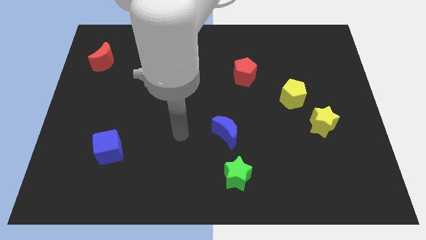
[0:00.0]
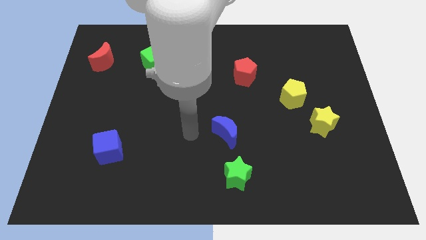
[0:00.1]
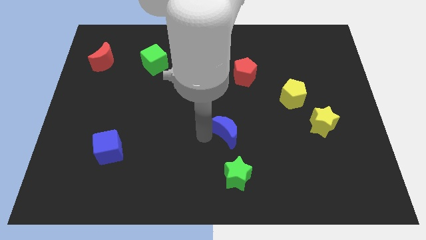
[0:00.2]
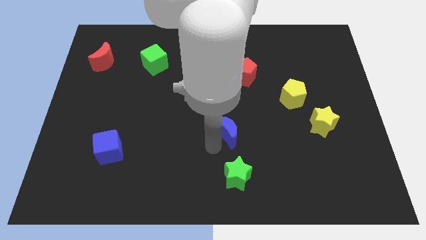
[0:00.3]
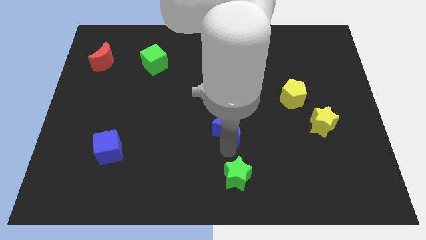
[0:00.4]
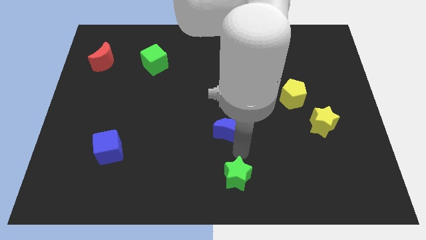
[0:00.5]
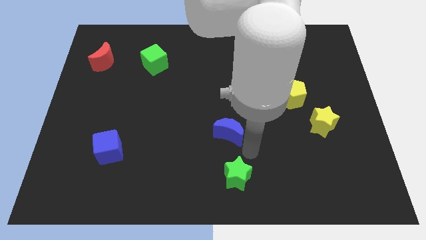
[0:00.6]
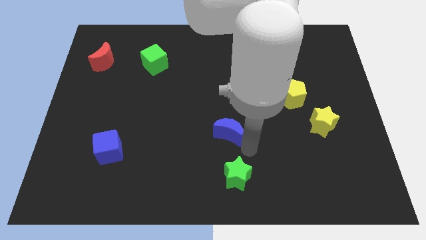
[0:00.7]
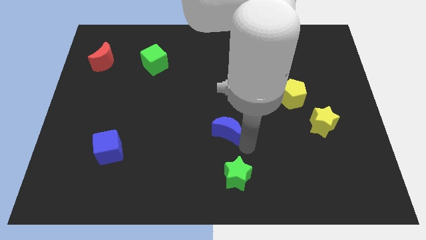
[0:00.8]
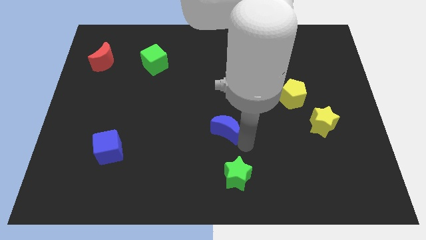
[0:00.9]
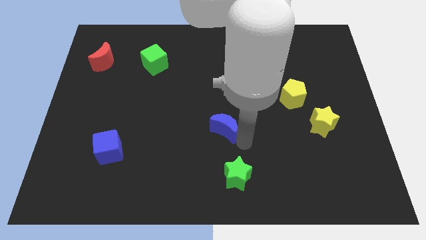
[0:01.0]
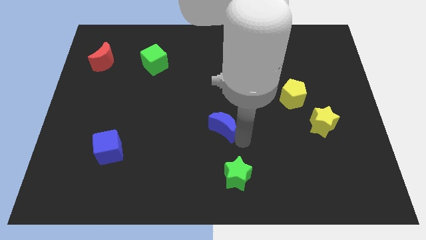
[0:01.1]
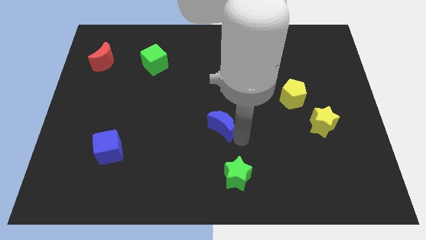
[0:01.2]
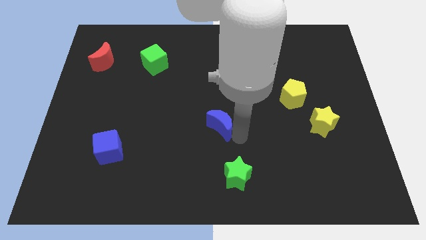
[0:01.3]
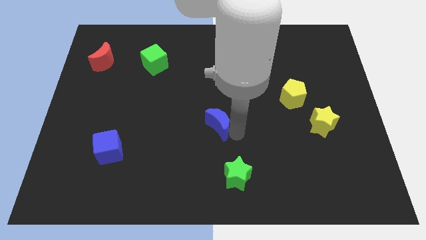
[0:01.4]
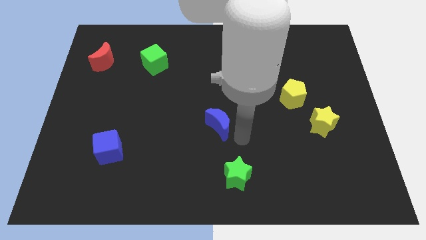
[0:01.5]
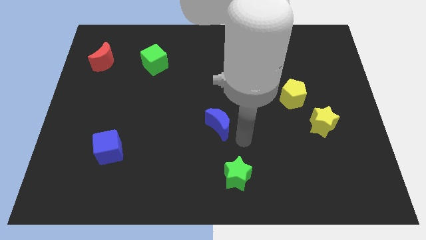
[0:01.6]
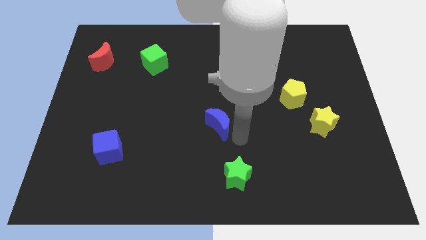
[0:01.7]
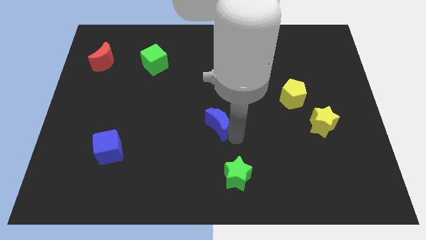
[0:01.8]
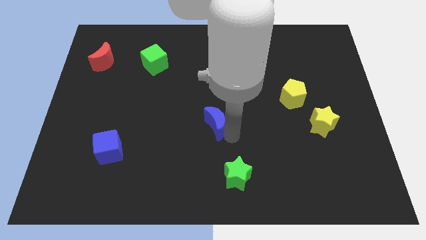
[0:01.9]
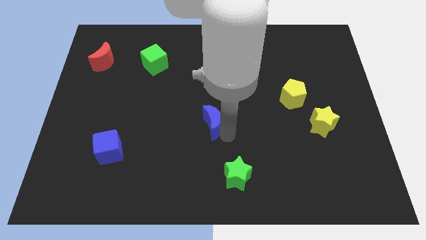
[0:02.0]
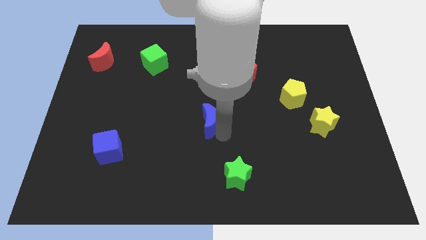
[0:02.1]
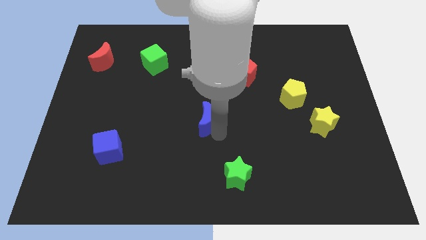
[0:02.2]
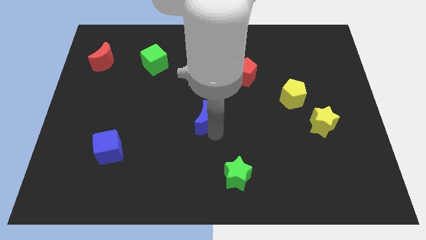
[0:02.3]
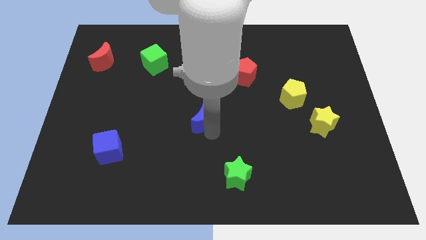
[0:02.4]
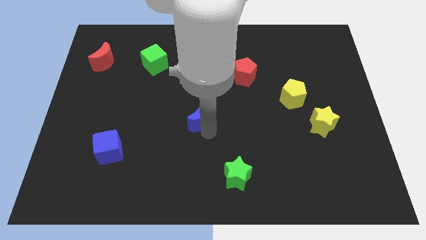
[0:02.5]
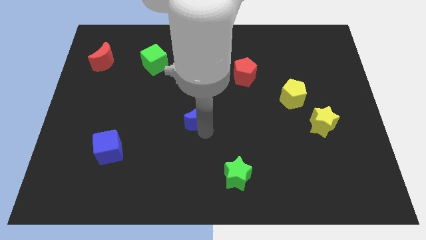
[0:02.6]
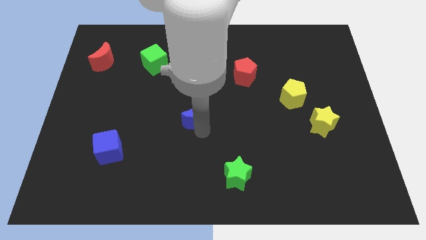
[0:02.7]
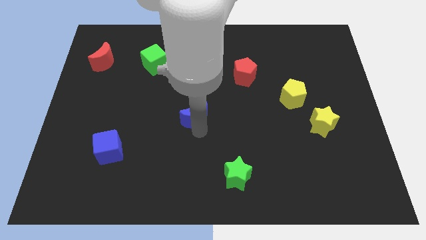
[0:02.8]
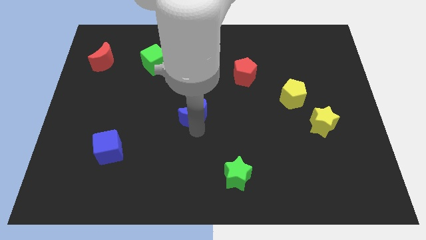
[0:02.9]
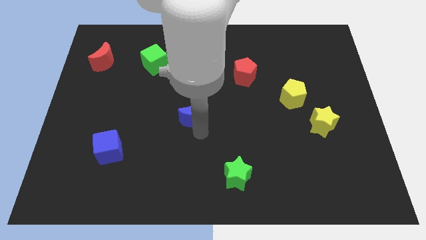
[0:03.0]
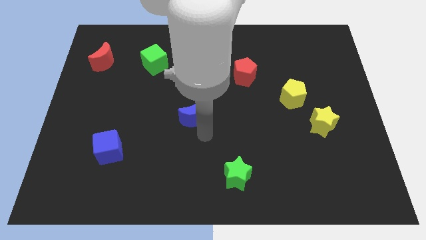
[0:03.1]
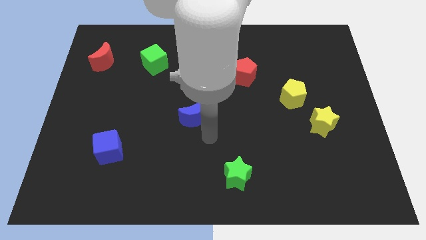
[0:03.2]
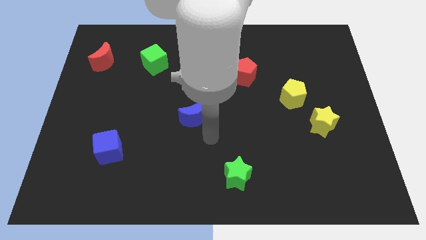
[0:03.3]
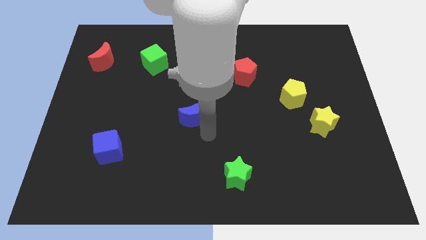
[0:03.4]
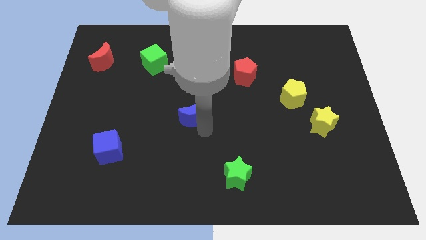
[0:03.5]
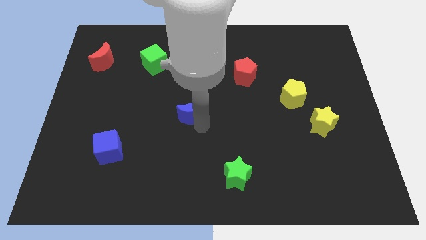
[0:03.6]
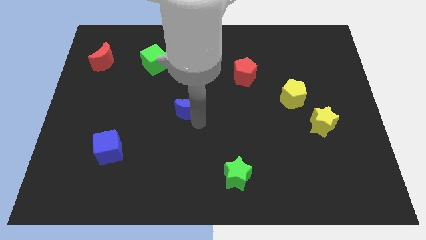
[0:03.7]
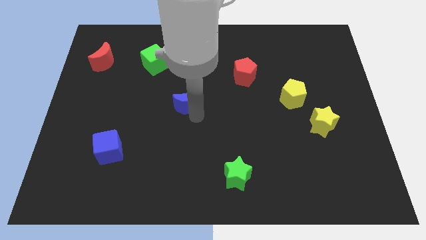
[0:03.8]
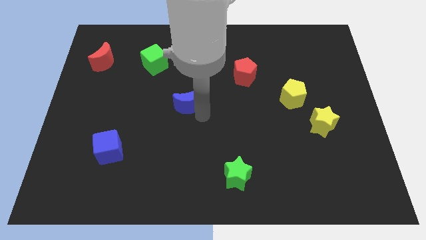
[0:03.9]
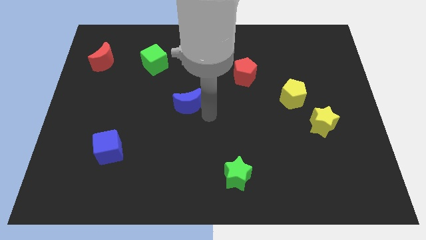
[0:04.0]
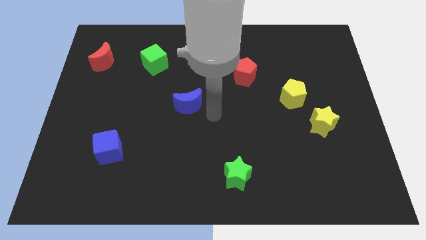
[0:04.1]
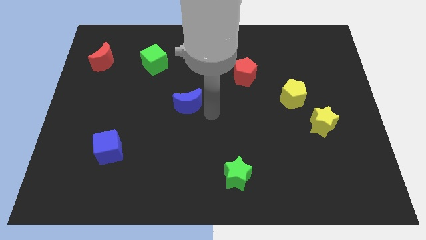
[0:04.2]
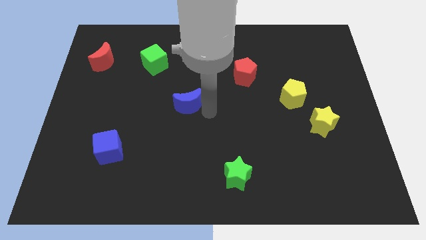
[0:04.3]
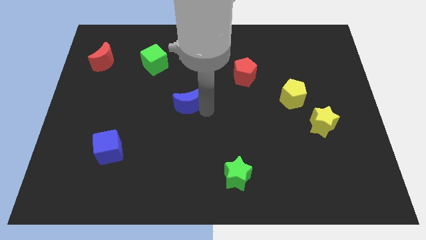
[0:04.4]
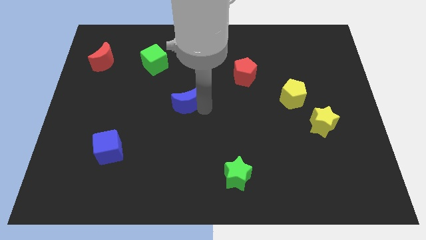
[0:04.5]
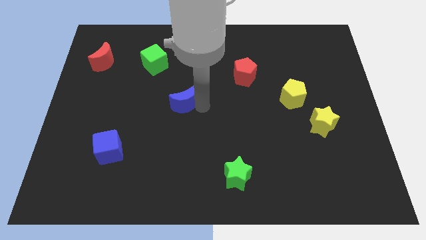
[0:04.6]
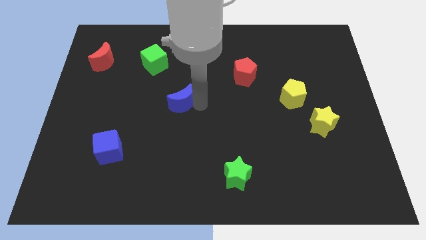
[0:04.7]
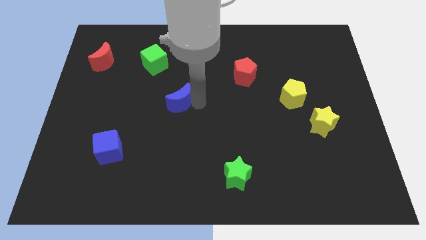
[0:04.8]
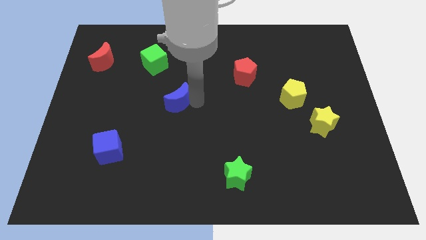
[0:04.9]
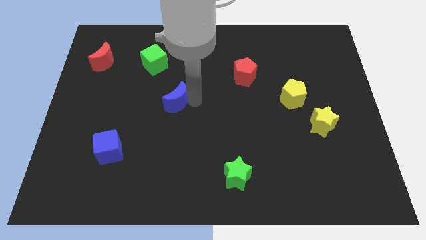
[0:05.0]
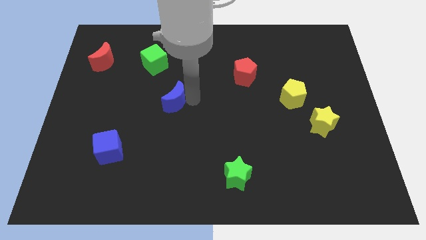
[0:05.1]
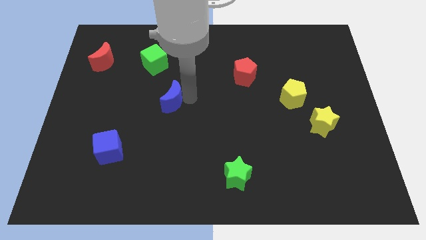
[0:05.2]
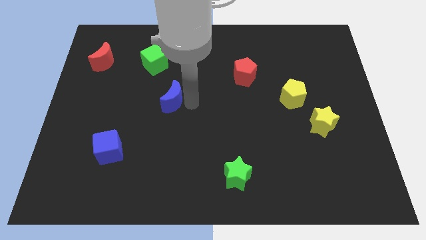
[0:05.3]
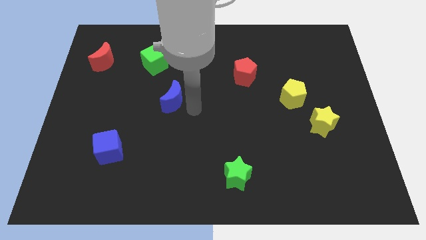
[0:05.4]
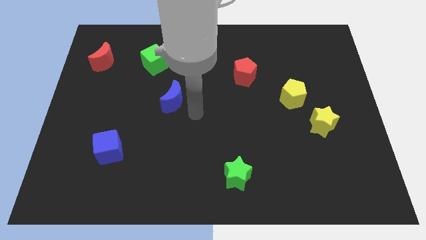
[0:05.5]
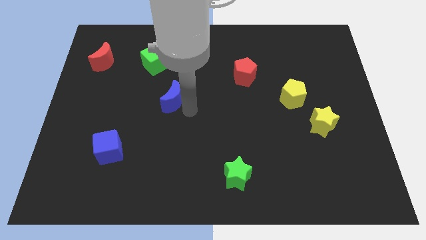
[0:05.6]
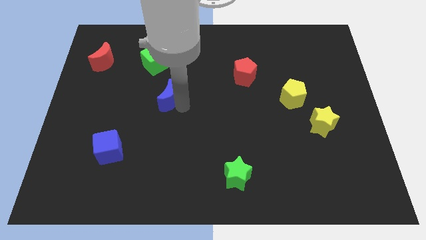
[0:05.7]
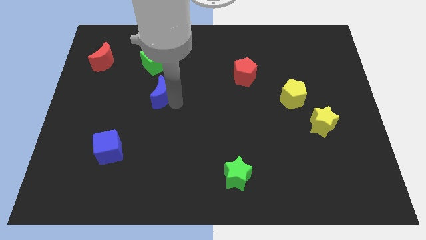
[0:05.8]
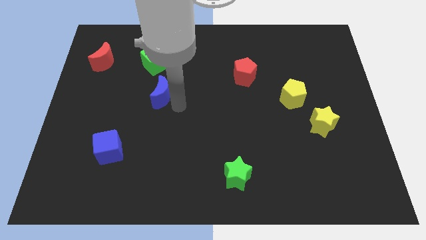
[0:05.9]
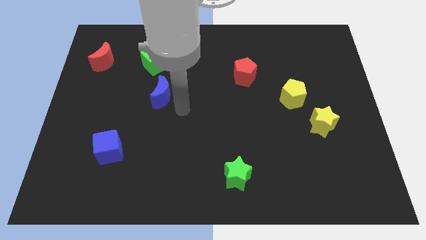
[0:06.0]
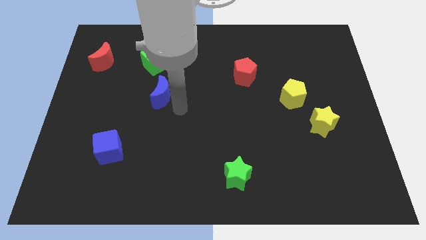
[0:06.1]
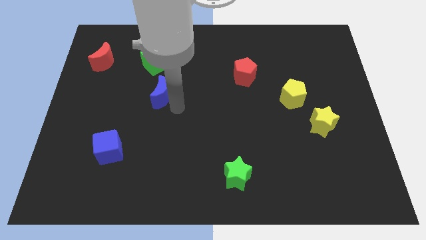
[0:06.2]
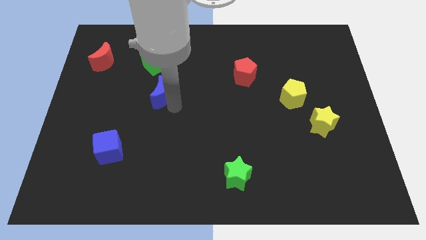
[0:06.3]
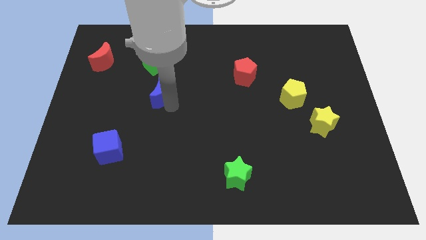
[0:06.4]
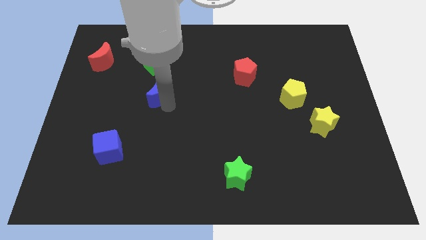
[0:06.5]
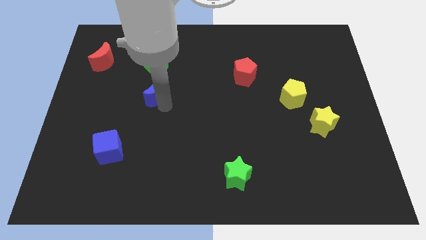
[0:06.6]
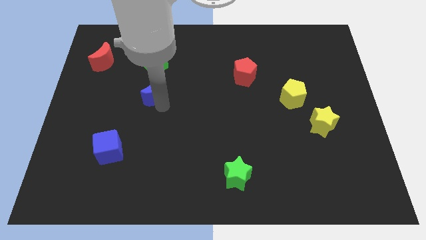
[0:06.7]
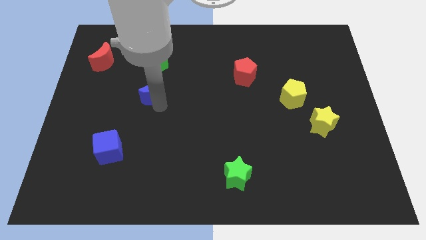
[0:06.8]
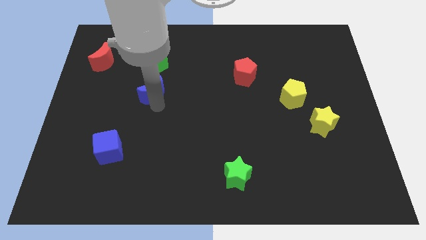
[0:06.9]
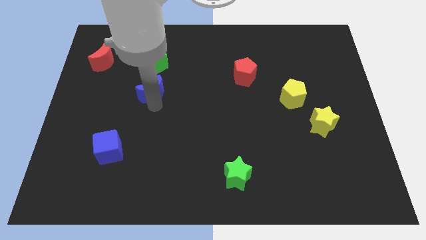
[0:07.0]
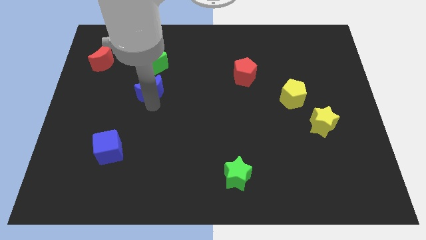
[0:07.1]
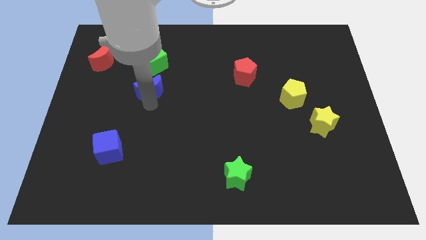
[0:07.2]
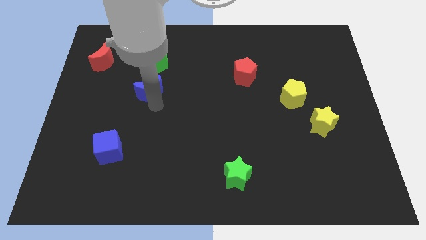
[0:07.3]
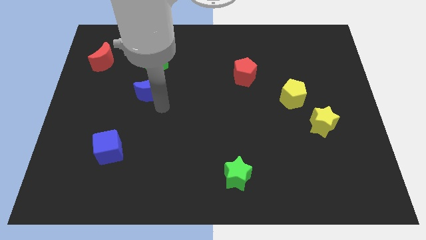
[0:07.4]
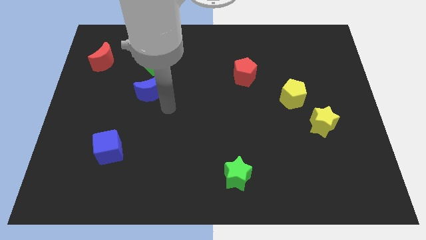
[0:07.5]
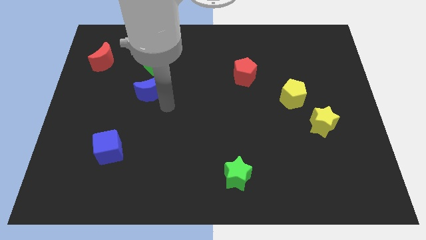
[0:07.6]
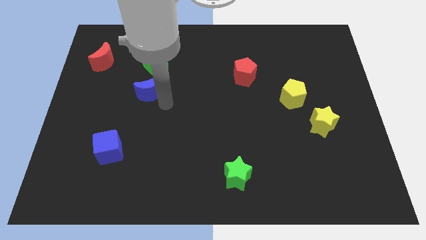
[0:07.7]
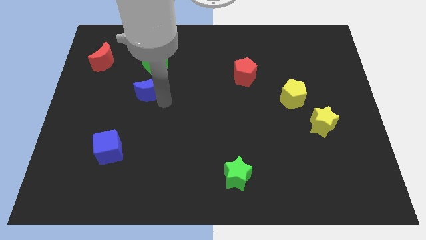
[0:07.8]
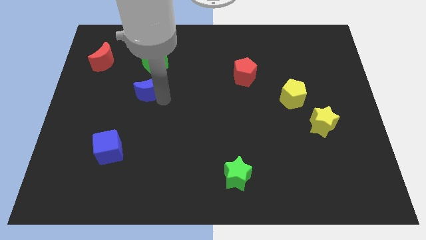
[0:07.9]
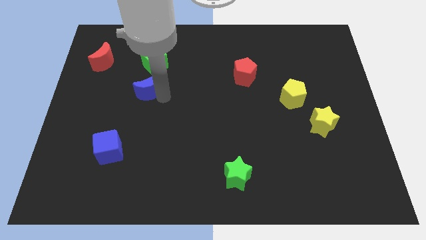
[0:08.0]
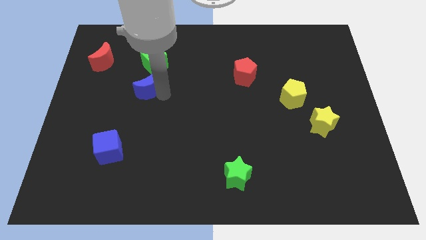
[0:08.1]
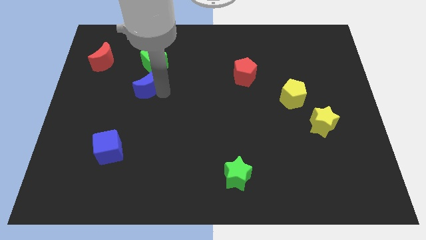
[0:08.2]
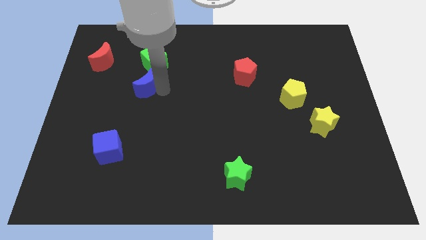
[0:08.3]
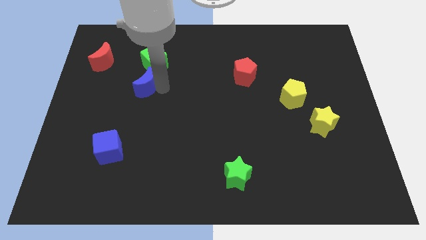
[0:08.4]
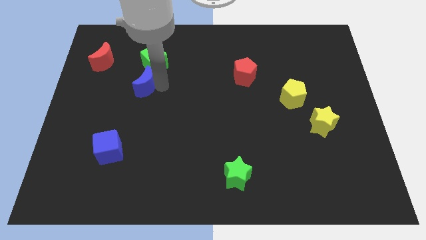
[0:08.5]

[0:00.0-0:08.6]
slide the blue moon to the bottom left side of the green cube
